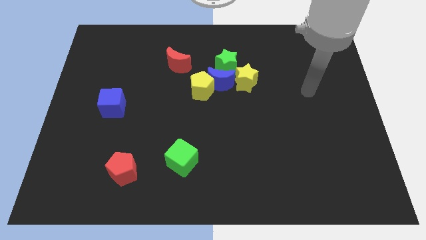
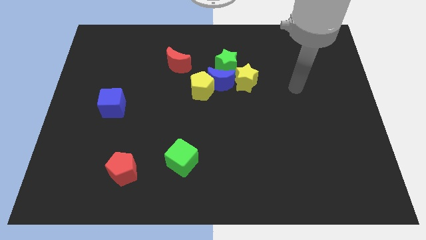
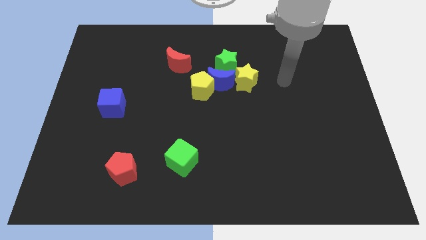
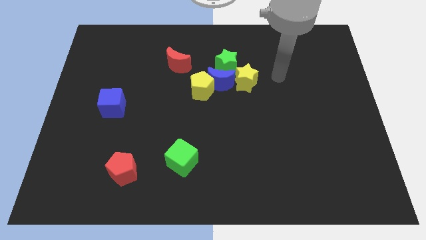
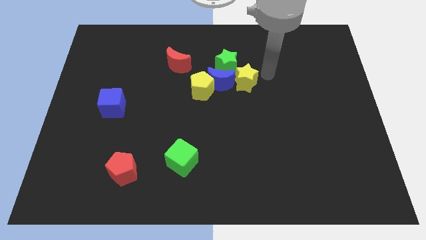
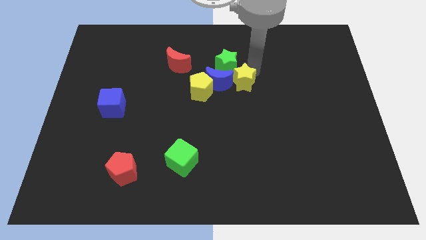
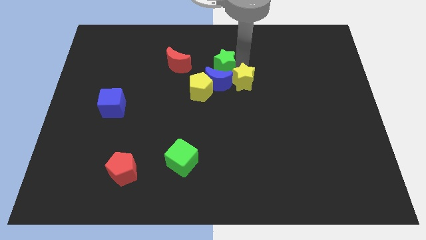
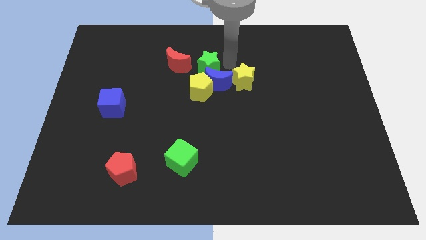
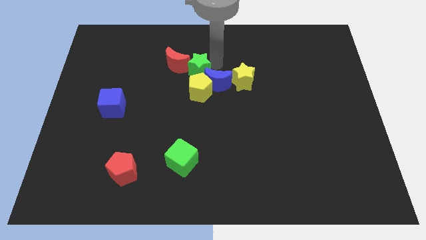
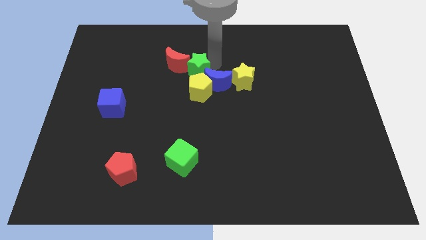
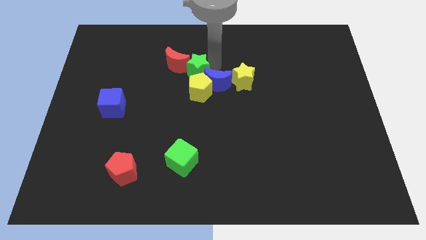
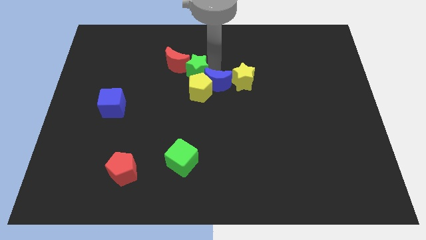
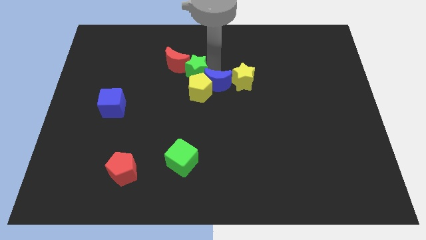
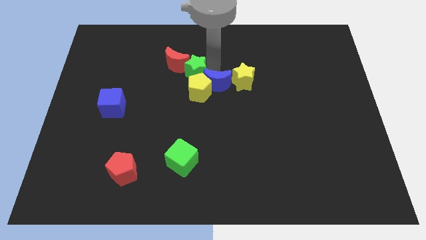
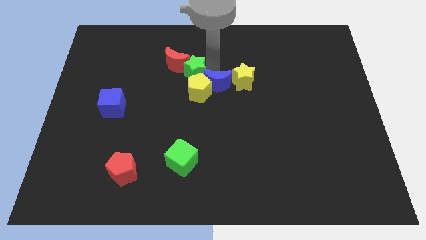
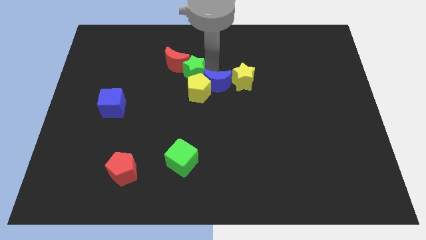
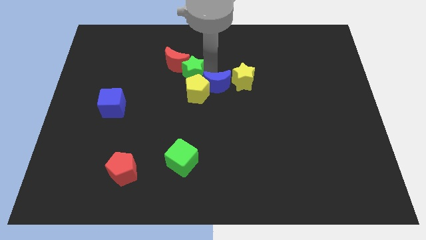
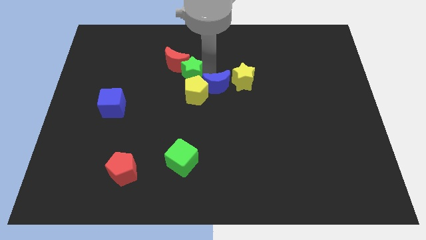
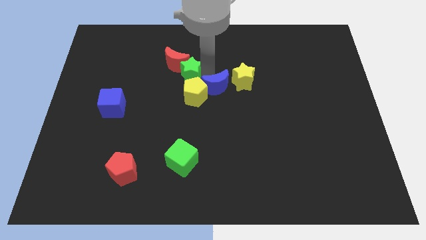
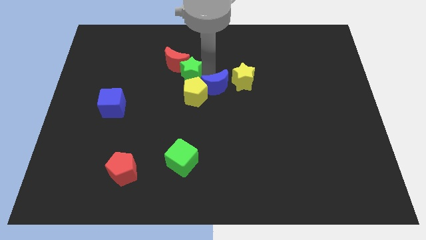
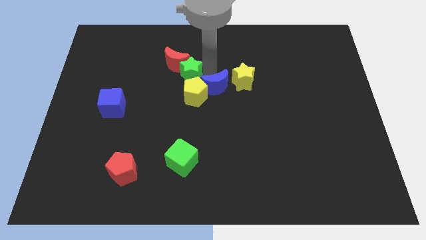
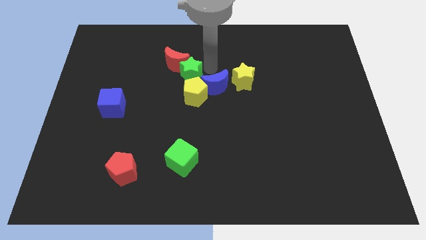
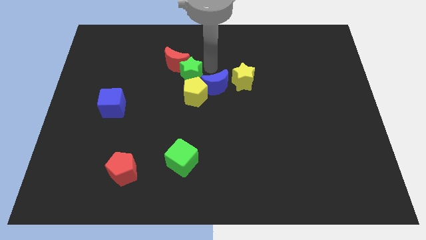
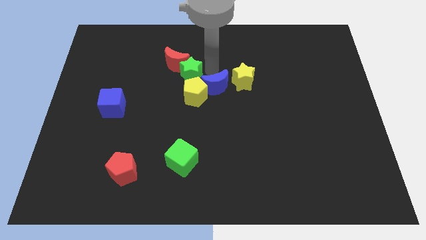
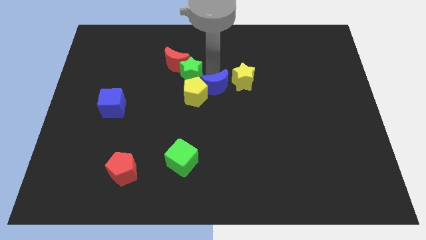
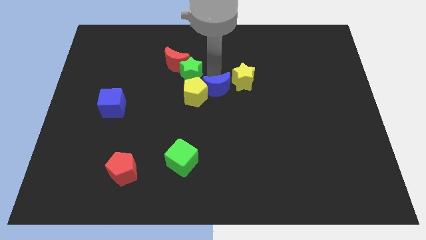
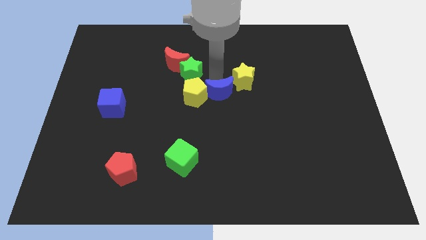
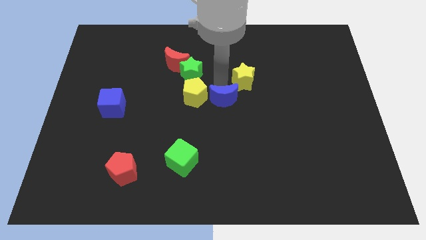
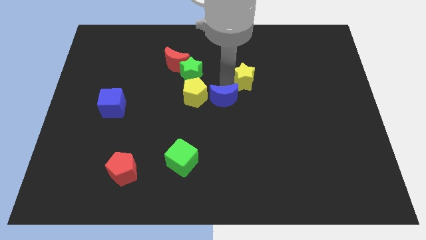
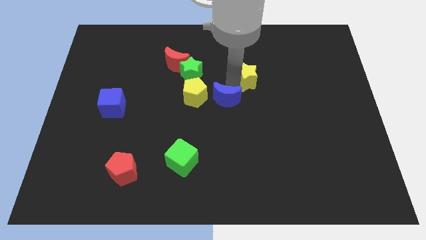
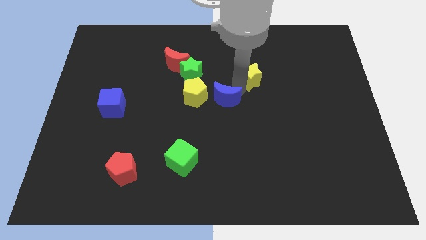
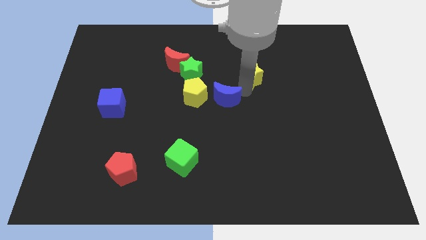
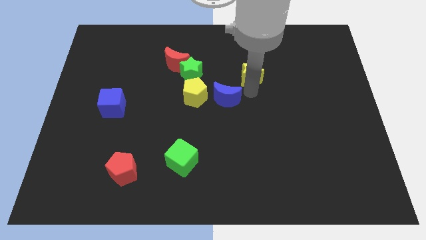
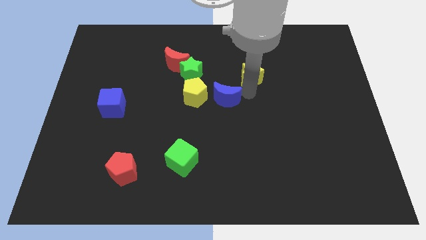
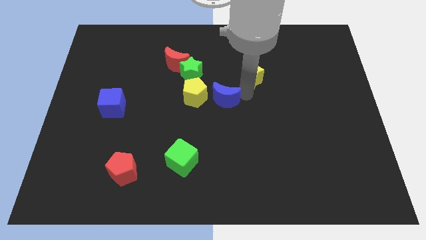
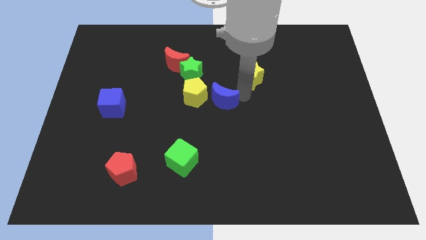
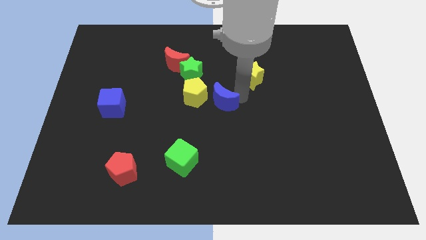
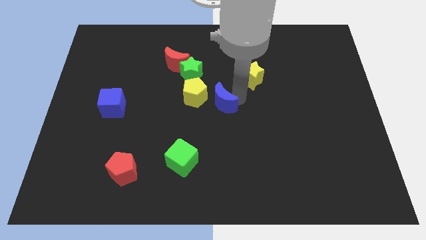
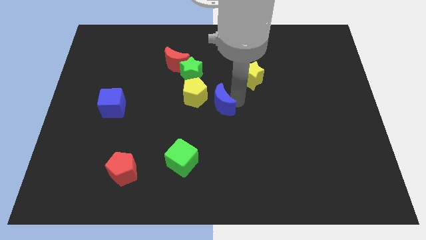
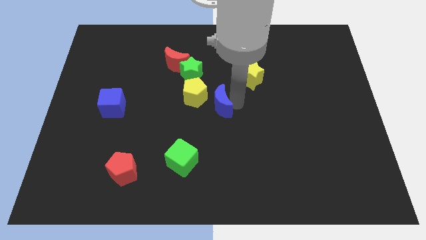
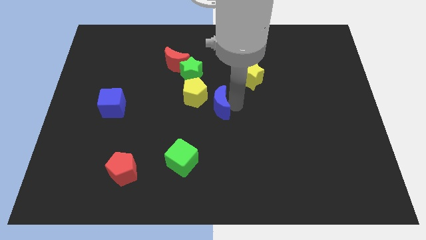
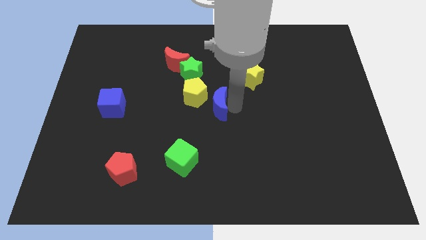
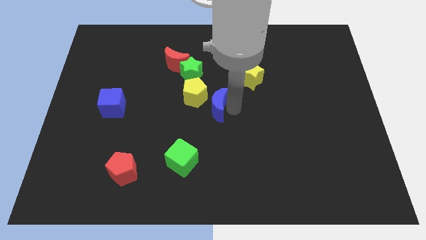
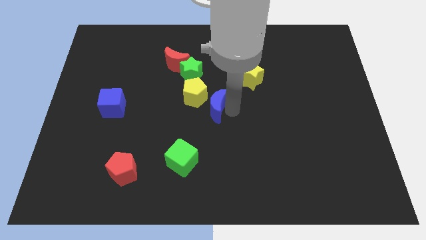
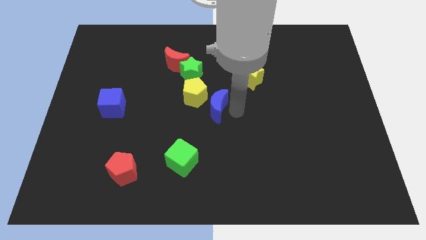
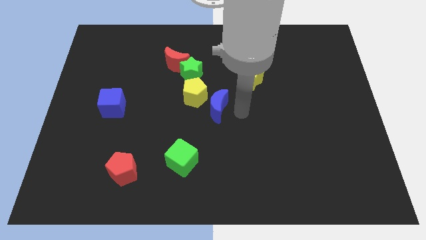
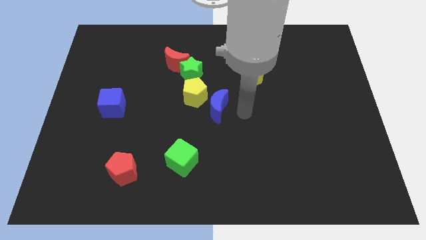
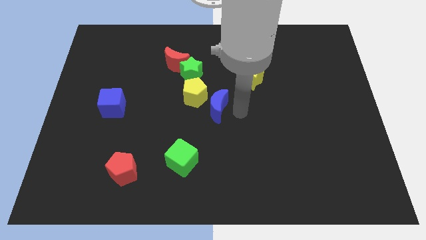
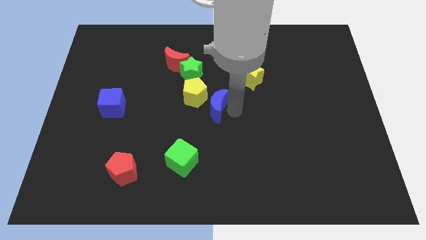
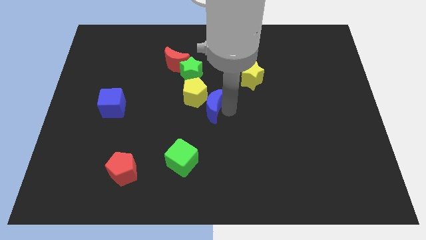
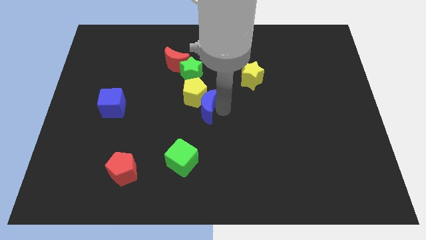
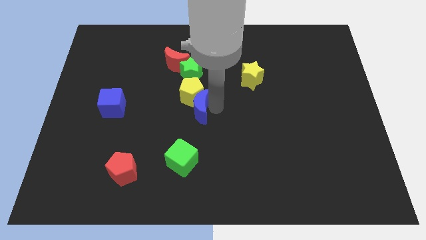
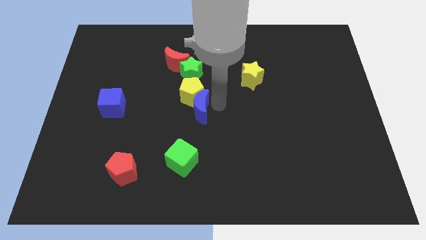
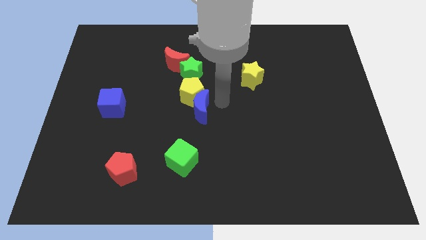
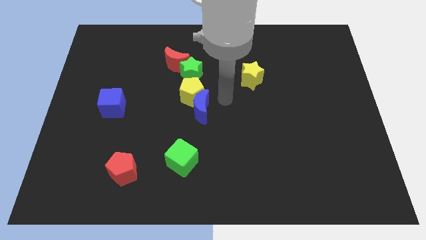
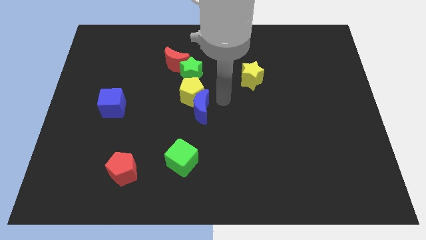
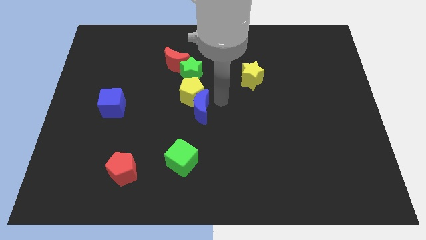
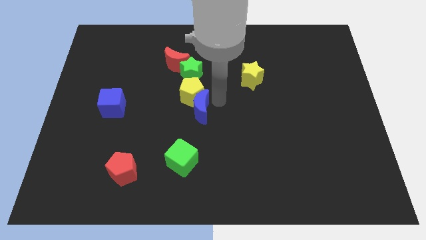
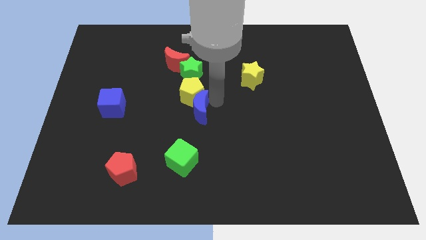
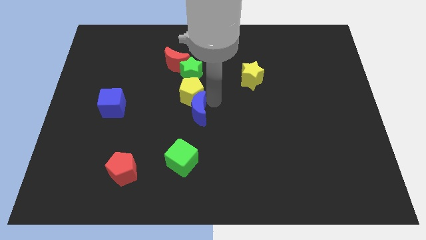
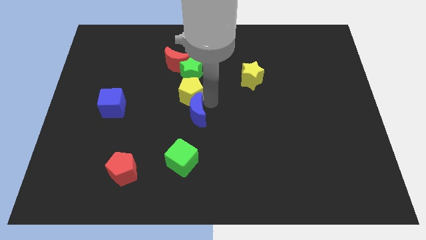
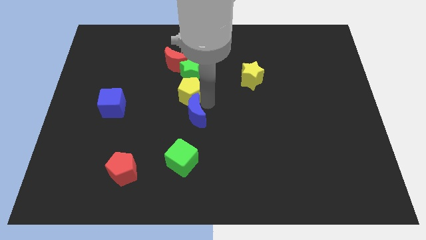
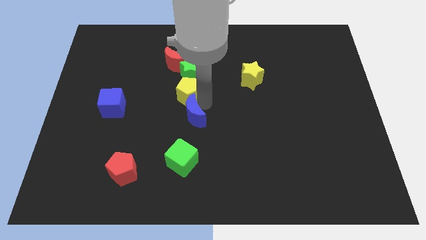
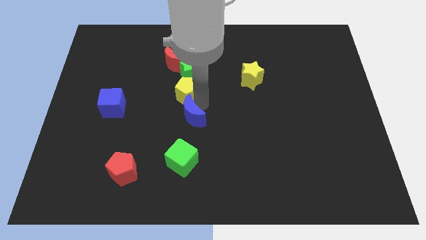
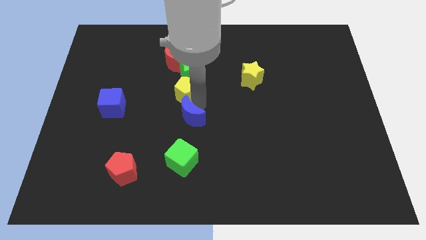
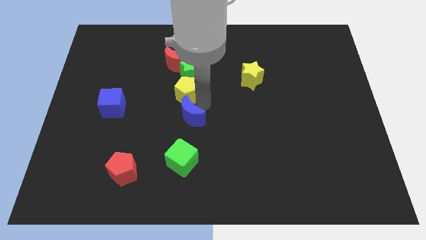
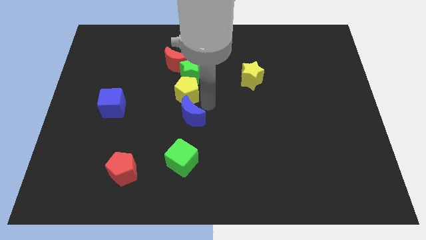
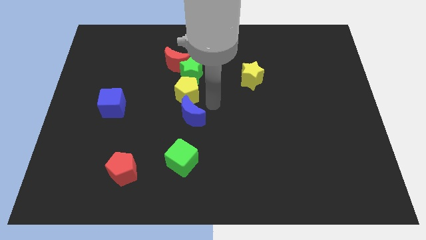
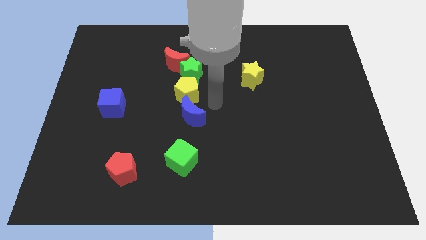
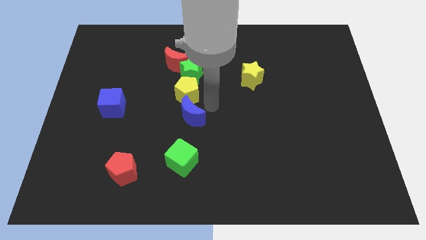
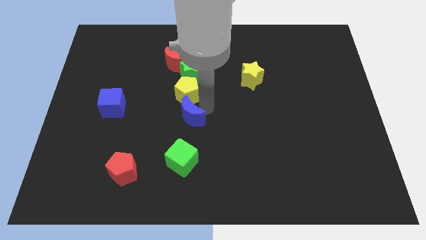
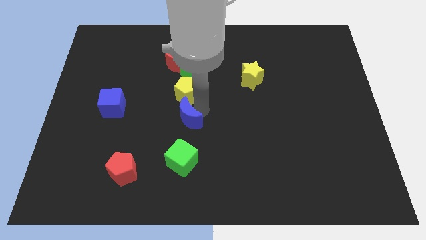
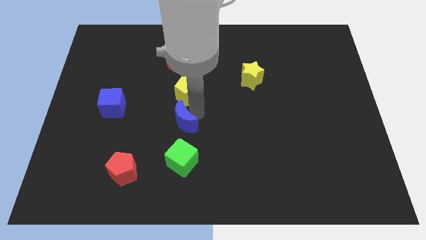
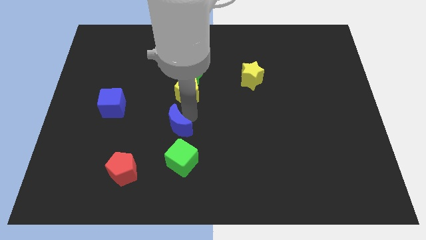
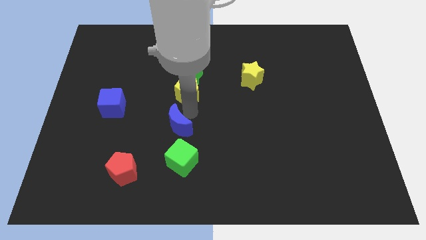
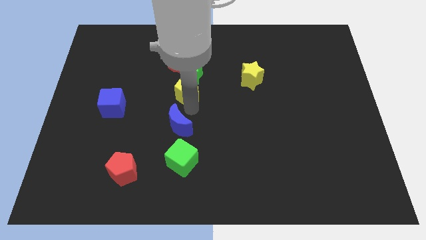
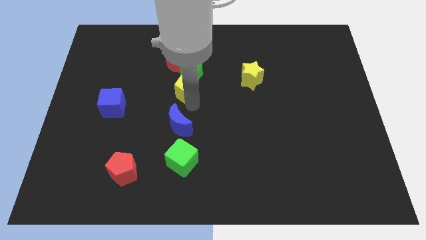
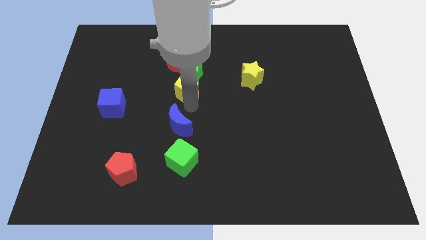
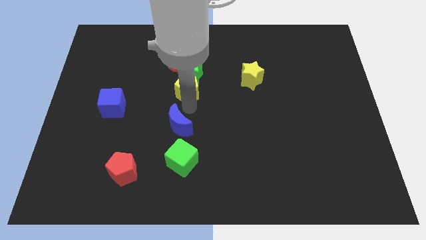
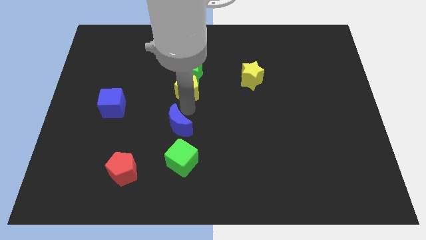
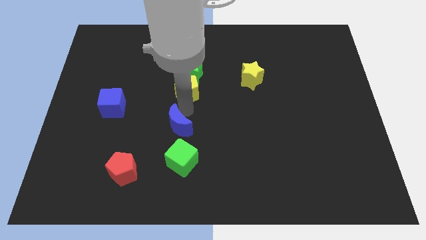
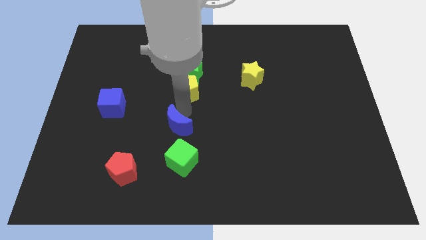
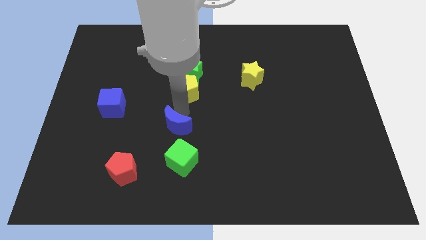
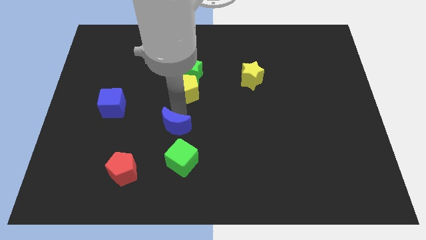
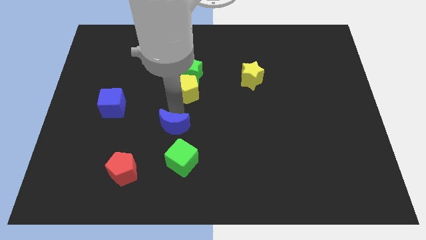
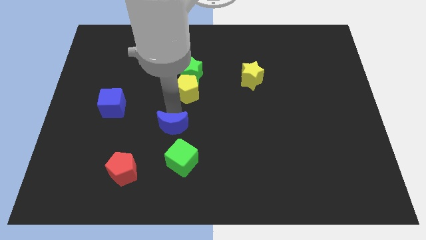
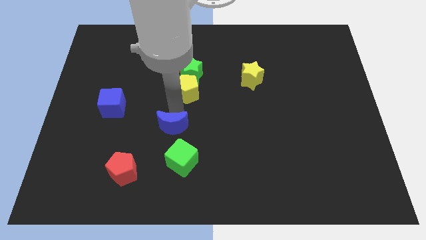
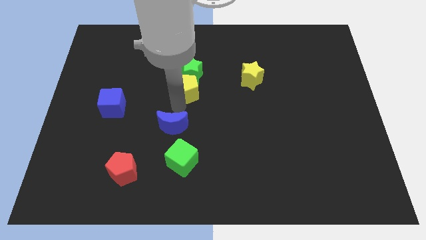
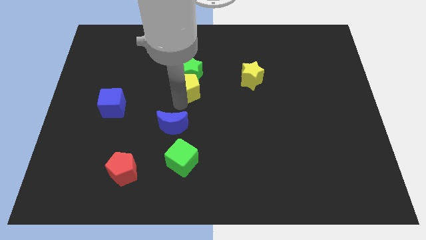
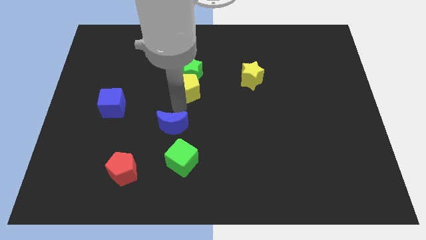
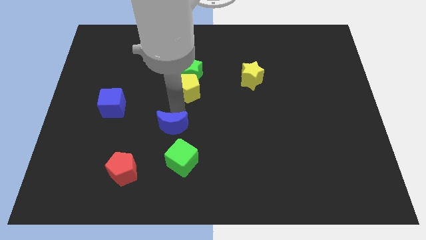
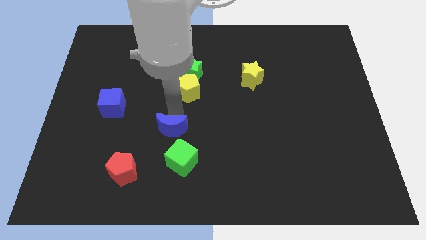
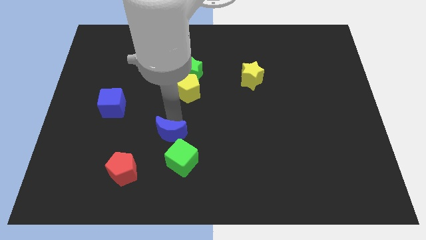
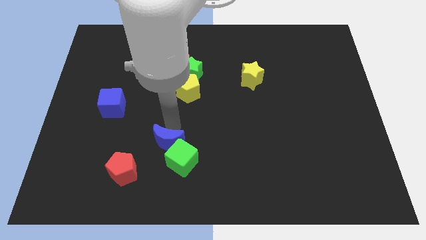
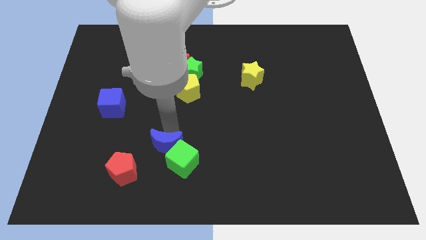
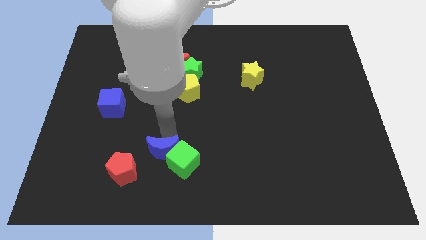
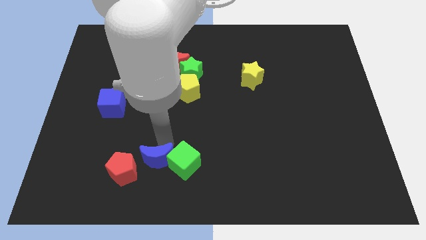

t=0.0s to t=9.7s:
slide the blue moon to the bottom left of the green cube
